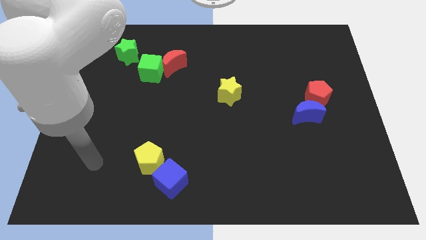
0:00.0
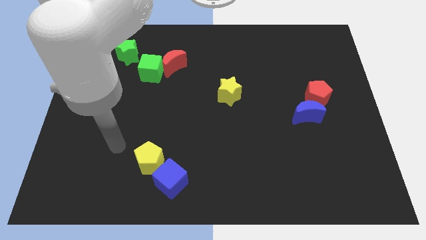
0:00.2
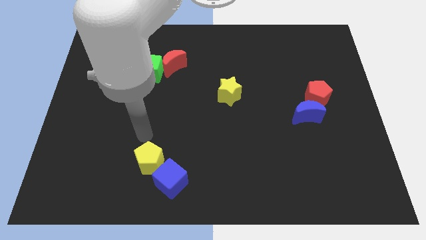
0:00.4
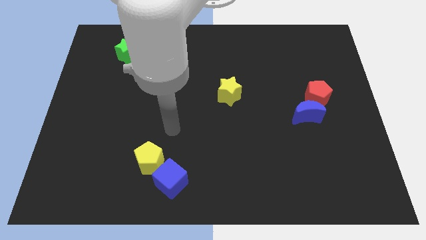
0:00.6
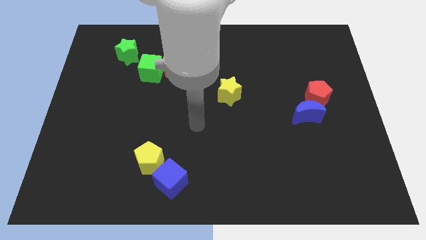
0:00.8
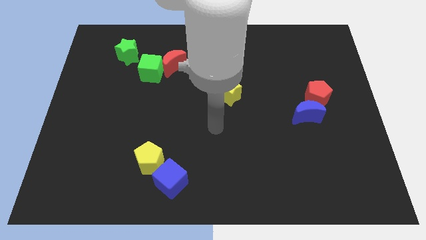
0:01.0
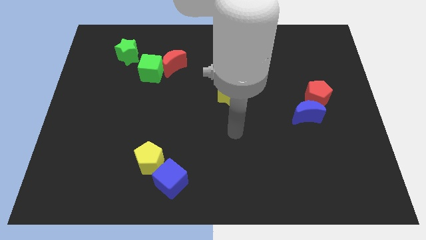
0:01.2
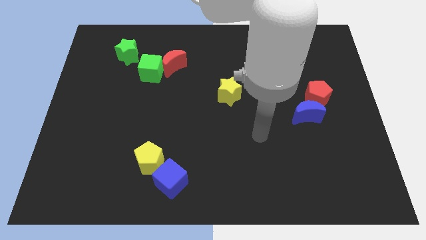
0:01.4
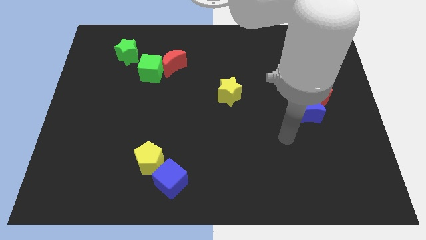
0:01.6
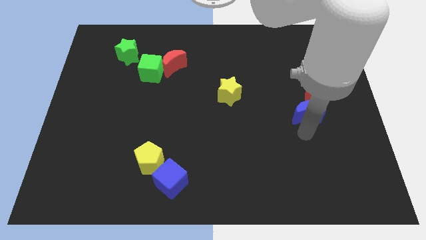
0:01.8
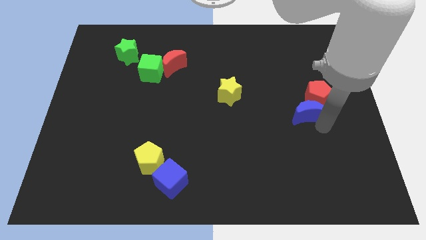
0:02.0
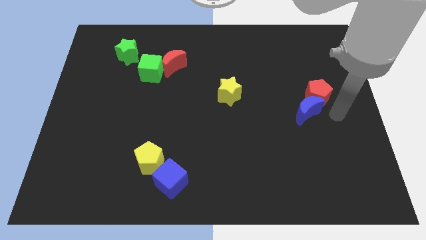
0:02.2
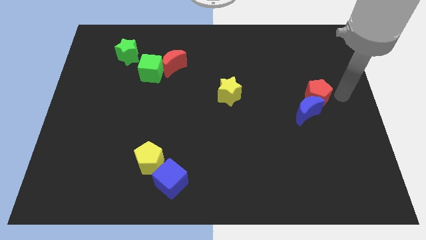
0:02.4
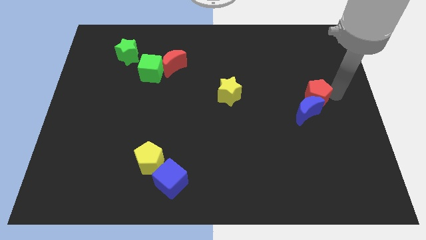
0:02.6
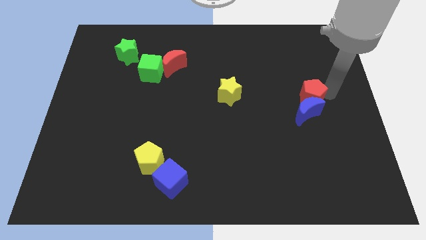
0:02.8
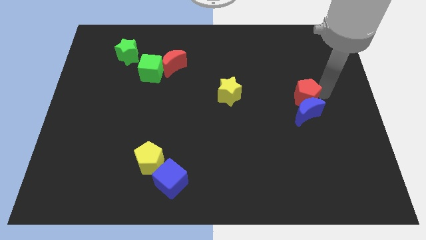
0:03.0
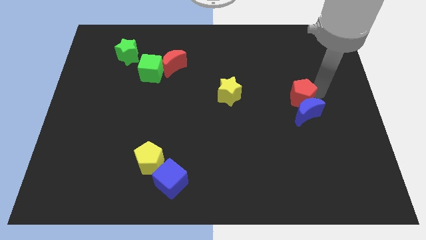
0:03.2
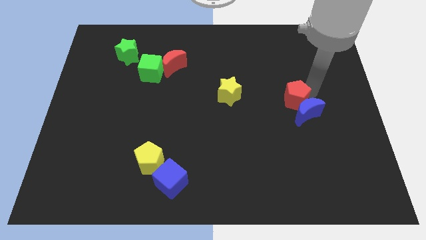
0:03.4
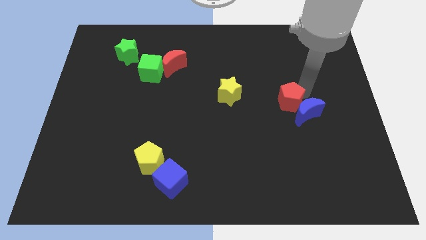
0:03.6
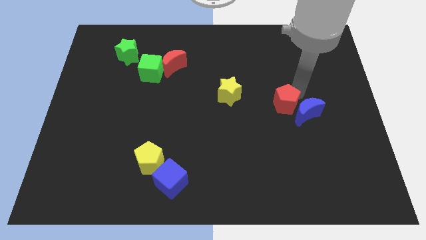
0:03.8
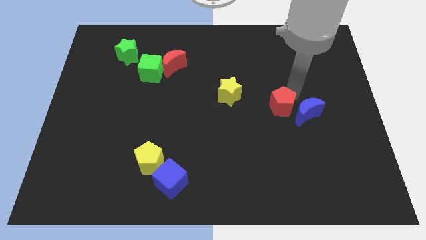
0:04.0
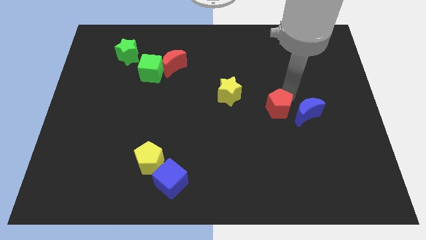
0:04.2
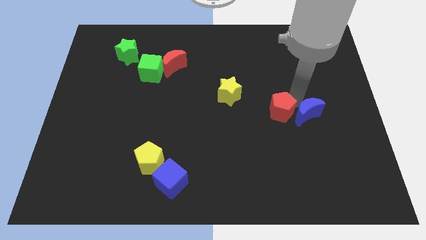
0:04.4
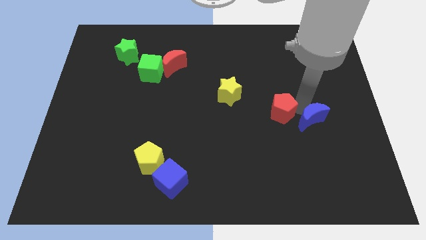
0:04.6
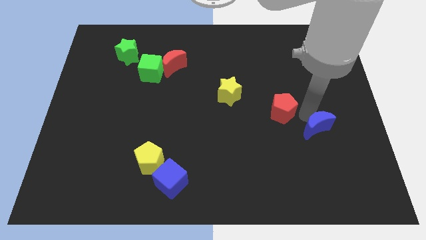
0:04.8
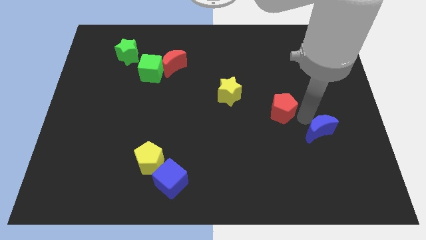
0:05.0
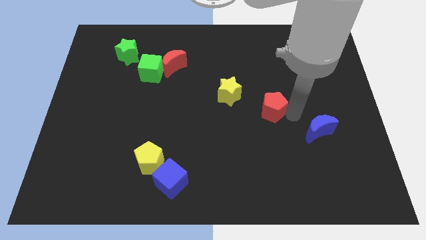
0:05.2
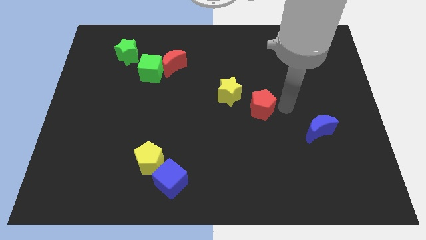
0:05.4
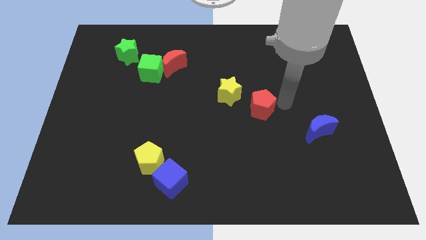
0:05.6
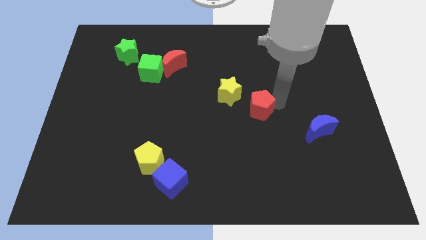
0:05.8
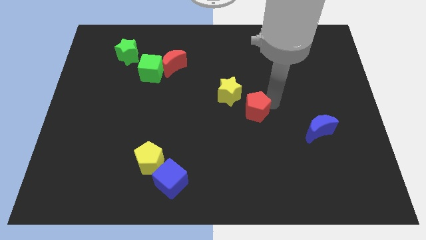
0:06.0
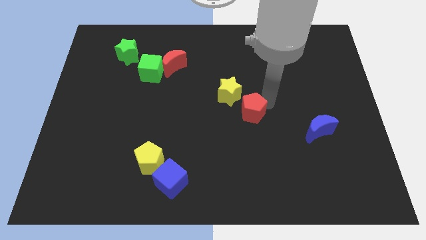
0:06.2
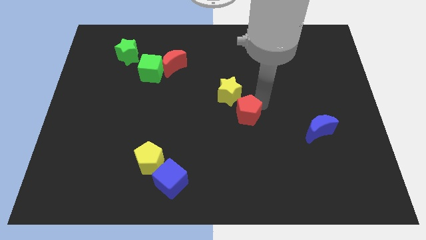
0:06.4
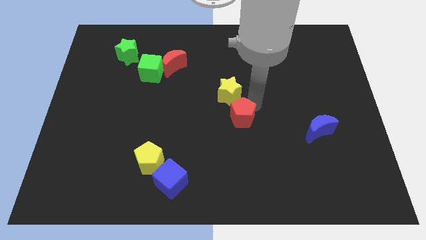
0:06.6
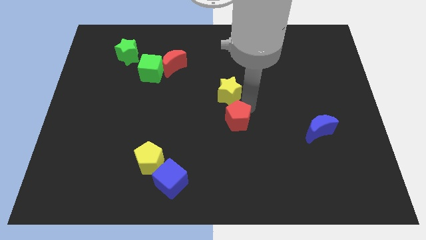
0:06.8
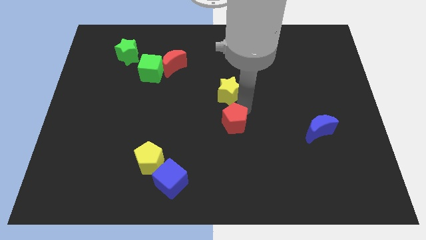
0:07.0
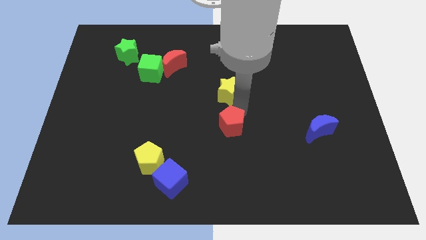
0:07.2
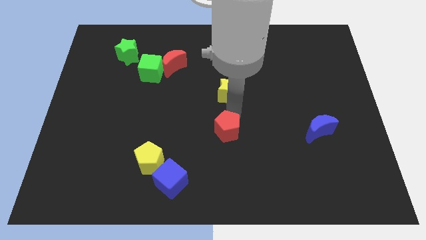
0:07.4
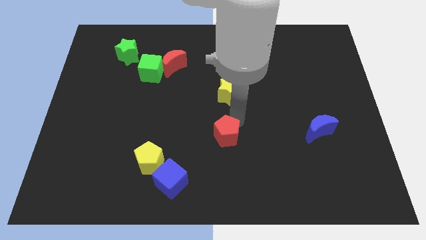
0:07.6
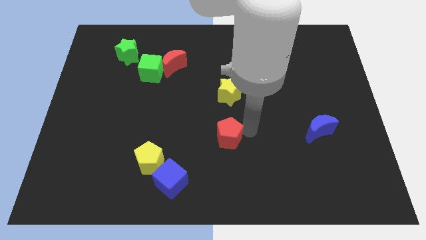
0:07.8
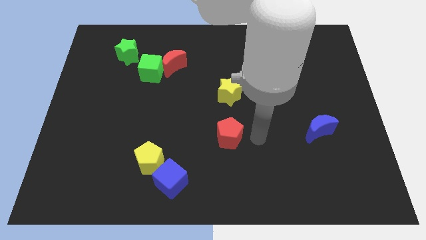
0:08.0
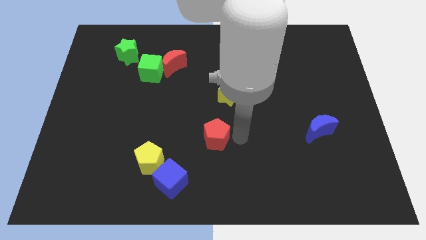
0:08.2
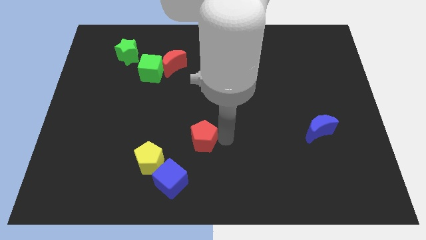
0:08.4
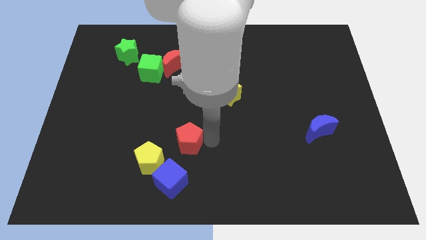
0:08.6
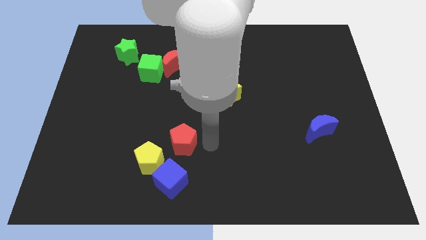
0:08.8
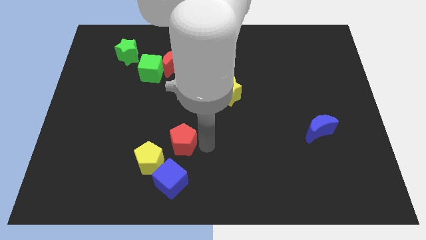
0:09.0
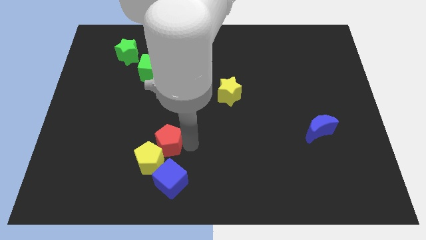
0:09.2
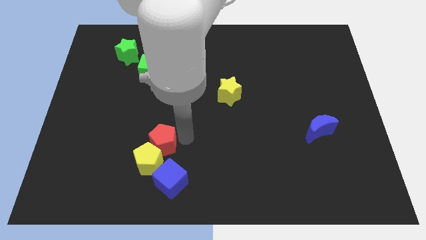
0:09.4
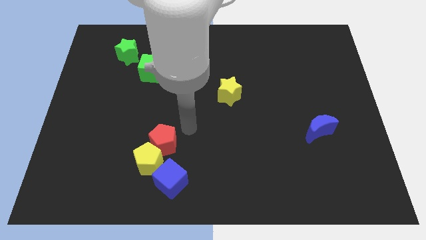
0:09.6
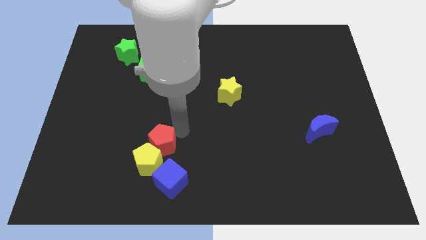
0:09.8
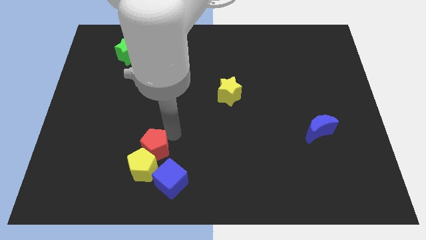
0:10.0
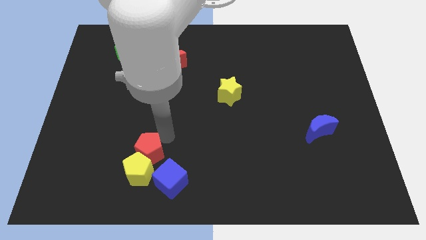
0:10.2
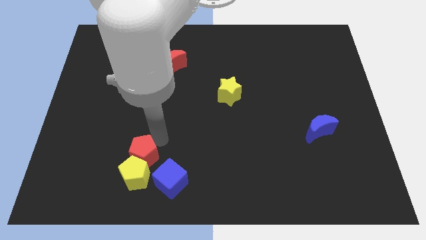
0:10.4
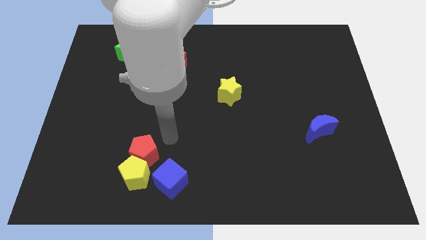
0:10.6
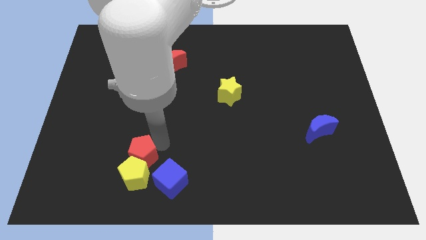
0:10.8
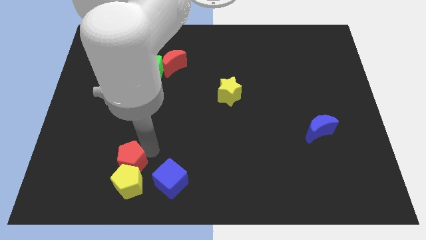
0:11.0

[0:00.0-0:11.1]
push the red pentagon to the left of the blue cube

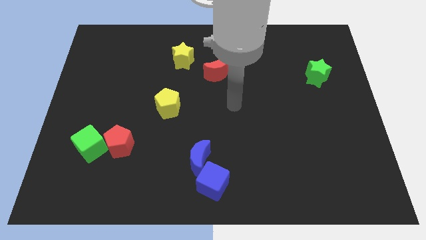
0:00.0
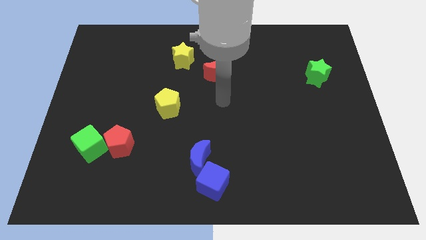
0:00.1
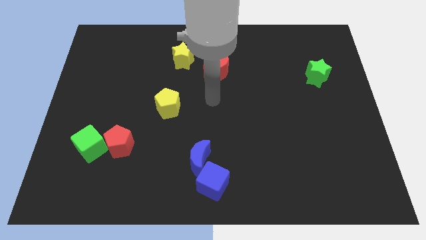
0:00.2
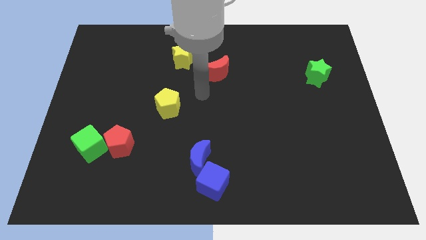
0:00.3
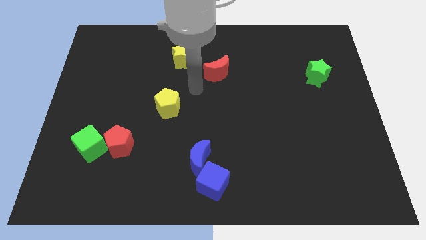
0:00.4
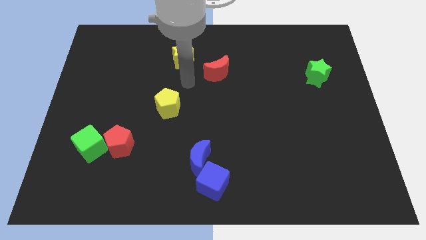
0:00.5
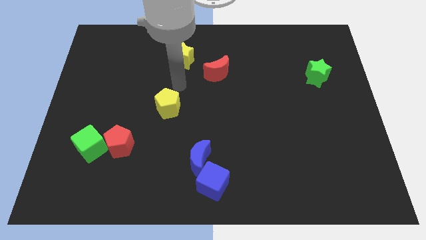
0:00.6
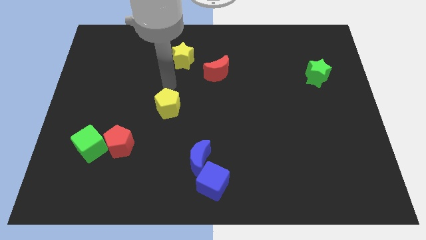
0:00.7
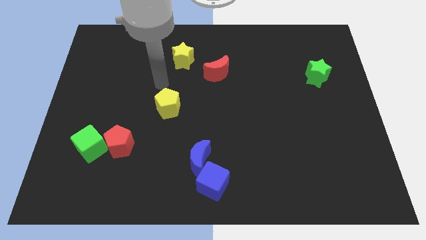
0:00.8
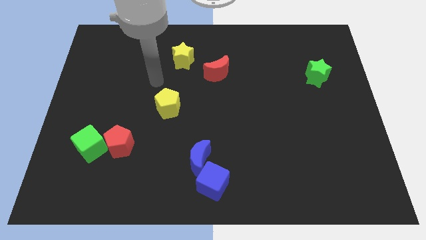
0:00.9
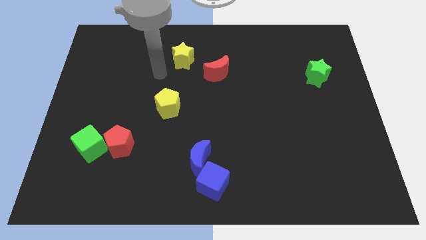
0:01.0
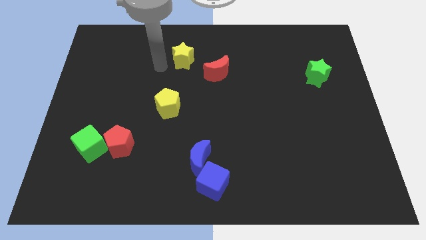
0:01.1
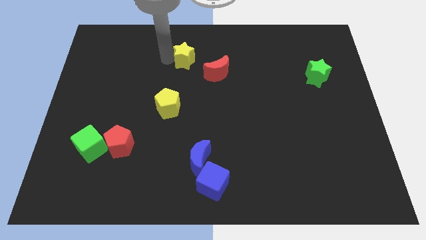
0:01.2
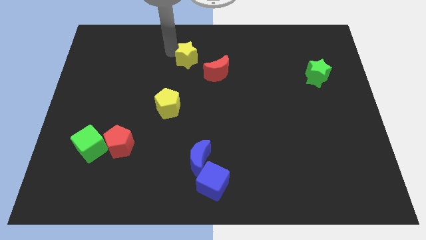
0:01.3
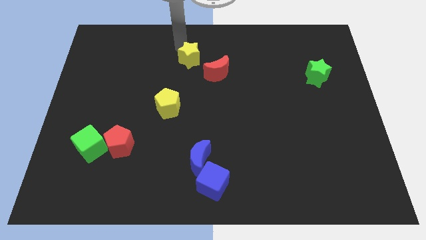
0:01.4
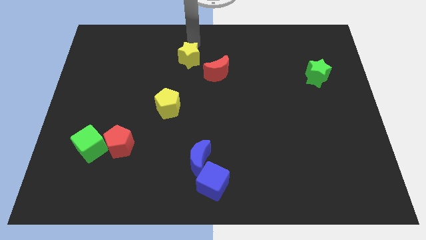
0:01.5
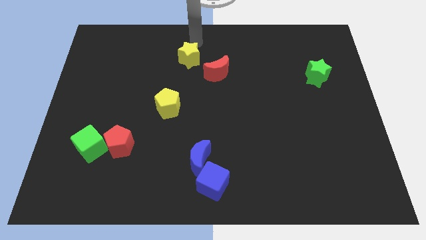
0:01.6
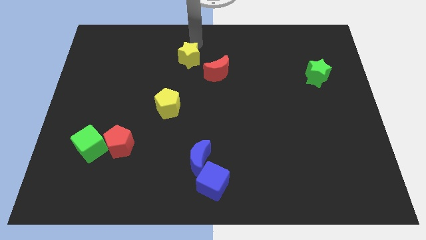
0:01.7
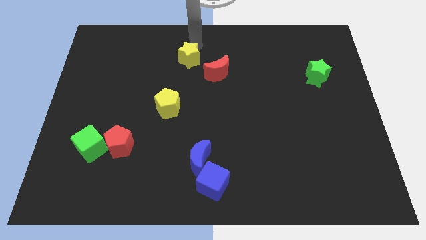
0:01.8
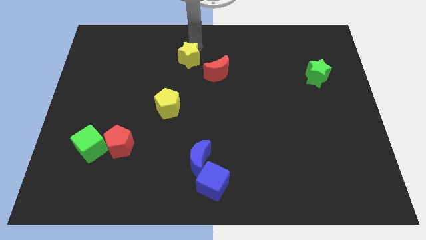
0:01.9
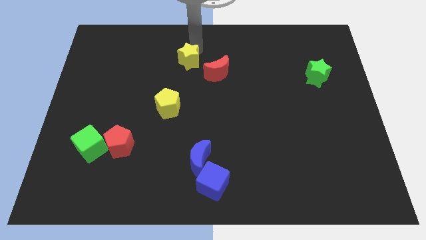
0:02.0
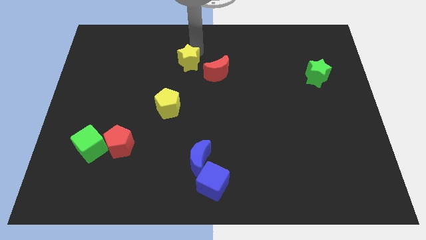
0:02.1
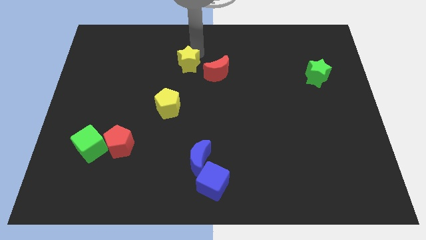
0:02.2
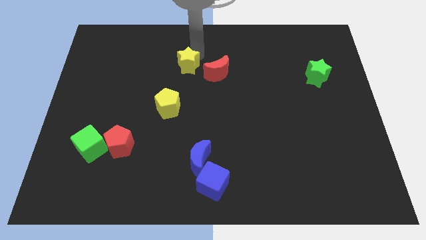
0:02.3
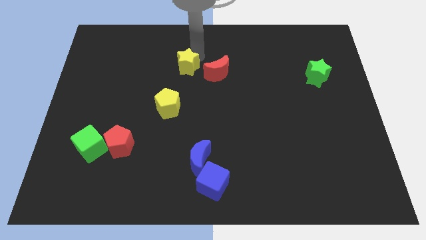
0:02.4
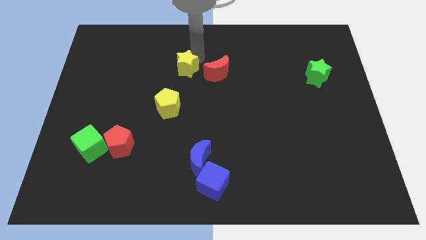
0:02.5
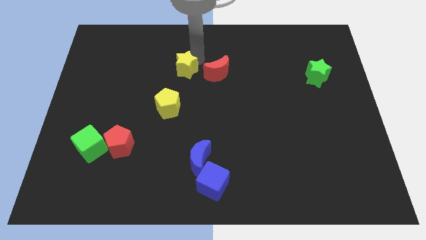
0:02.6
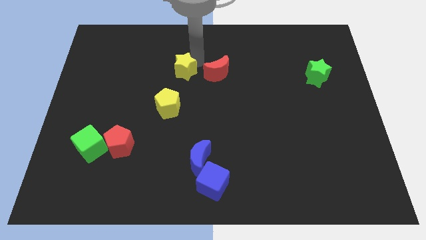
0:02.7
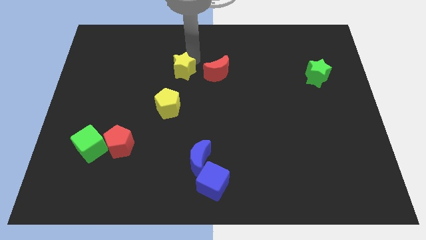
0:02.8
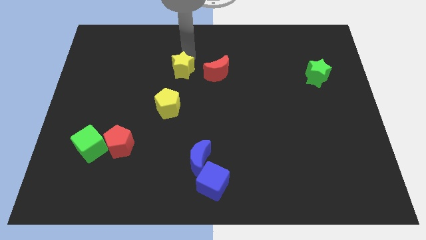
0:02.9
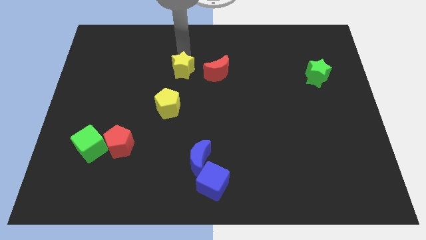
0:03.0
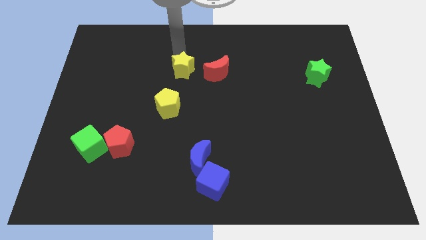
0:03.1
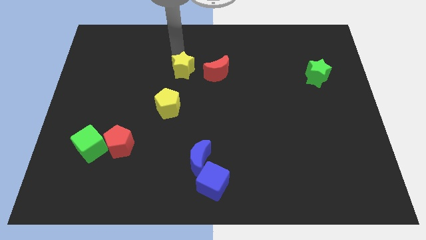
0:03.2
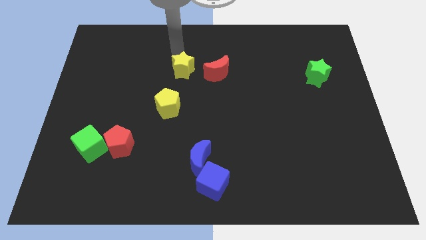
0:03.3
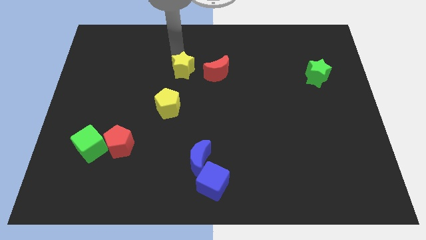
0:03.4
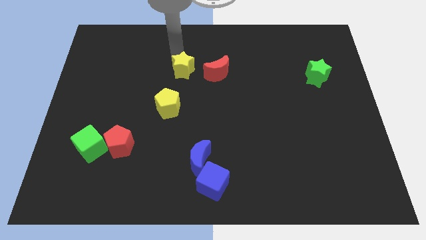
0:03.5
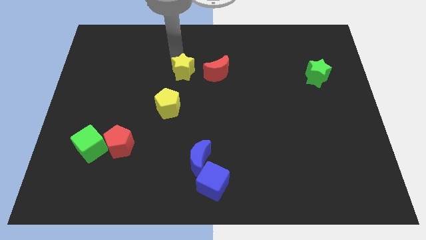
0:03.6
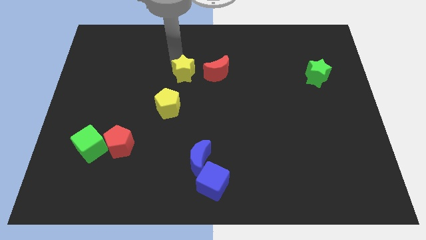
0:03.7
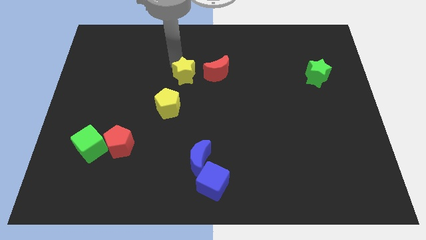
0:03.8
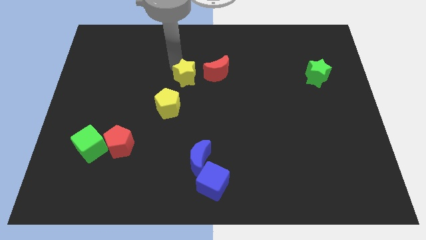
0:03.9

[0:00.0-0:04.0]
put the yellow star to the top right of the yellow pentagon
